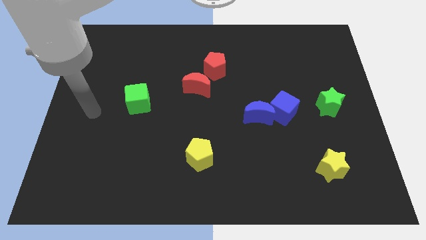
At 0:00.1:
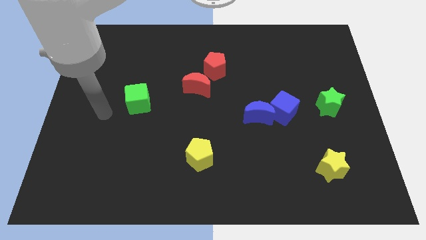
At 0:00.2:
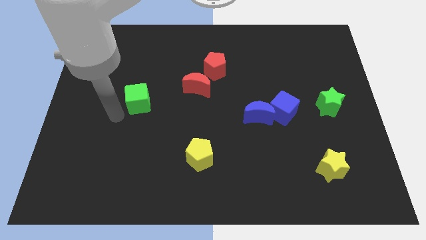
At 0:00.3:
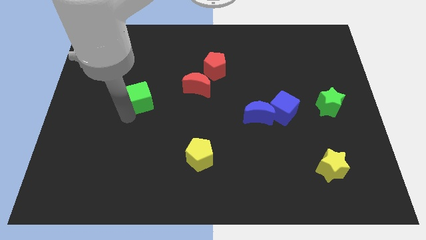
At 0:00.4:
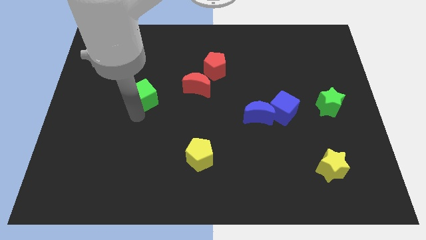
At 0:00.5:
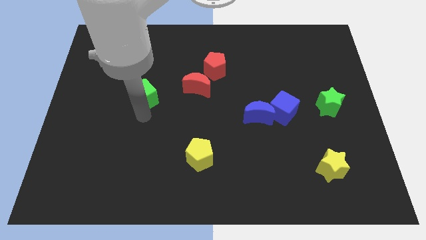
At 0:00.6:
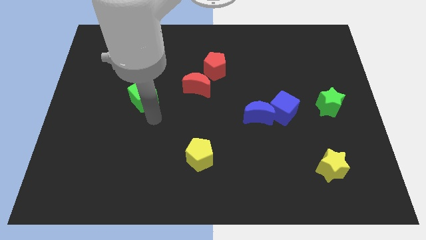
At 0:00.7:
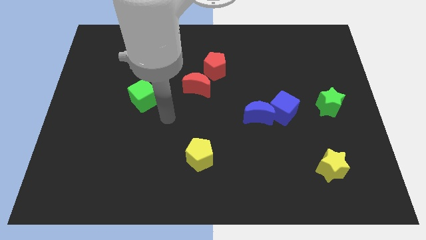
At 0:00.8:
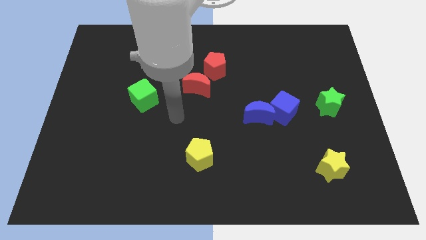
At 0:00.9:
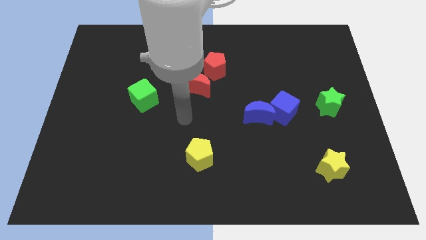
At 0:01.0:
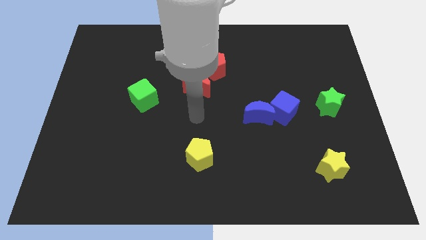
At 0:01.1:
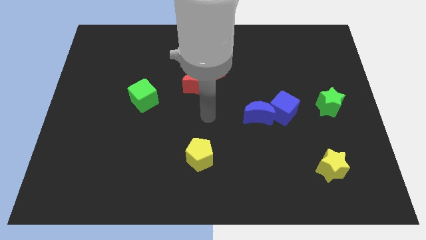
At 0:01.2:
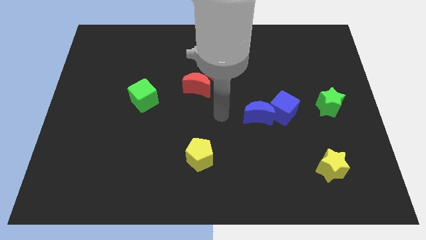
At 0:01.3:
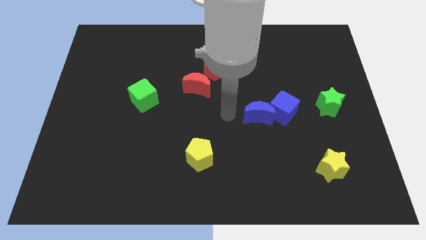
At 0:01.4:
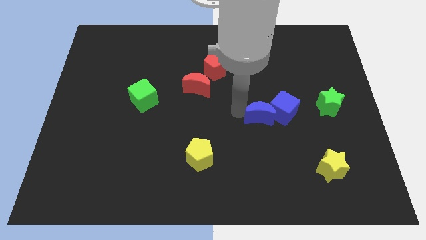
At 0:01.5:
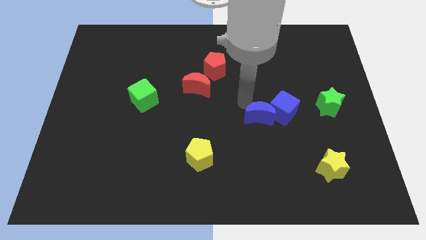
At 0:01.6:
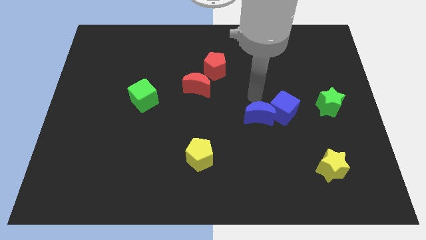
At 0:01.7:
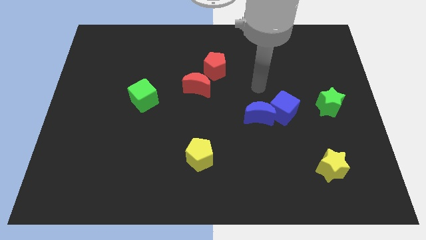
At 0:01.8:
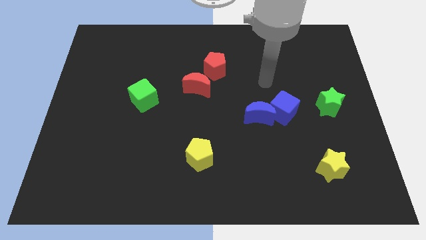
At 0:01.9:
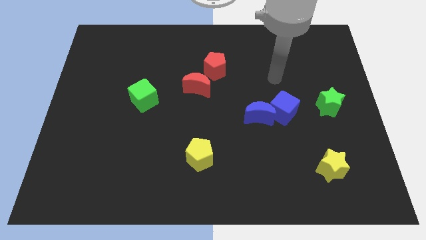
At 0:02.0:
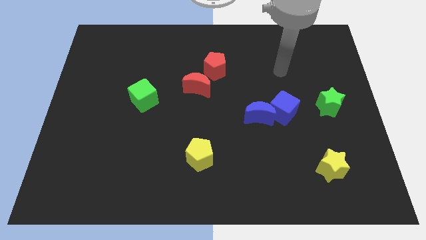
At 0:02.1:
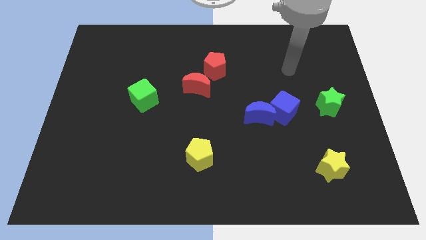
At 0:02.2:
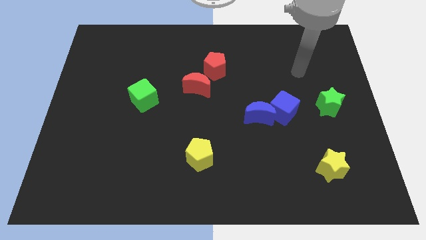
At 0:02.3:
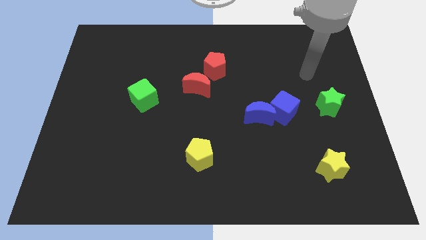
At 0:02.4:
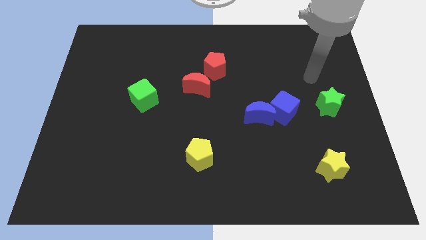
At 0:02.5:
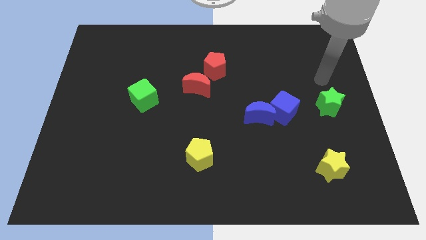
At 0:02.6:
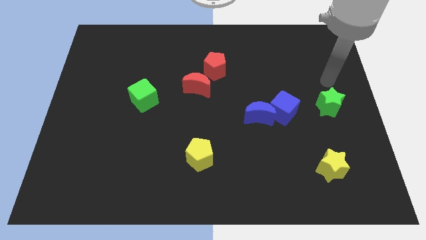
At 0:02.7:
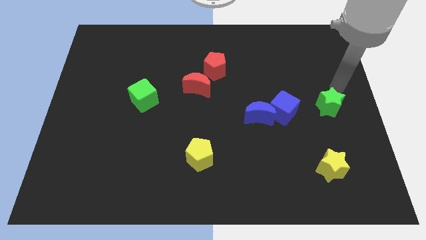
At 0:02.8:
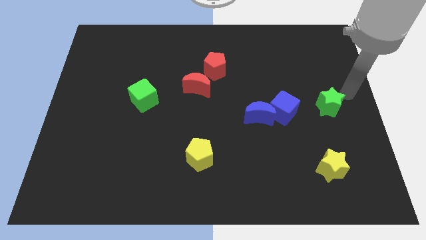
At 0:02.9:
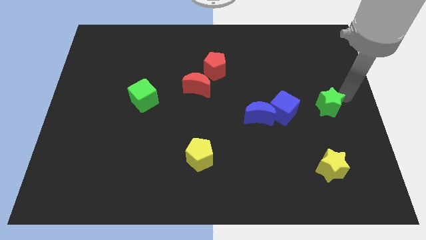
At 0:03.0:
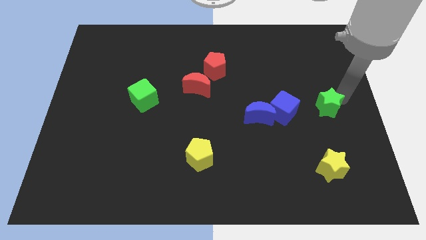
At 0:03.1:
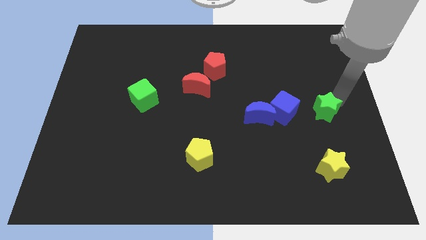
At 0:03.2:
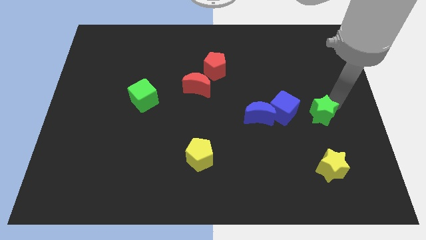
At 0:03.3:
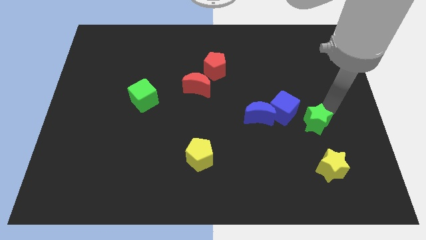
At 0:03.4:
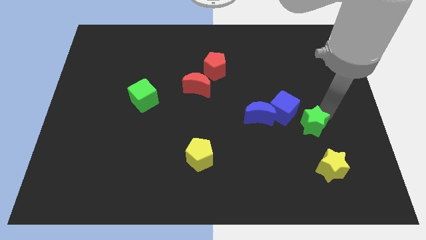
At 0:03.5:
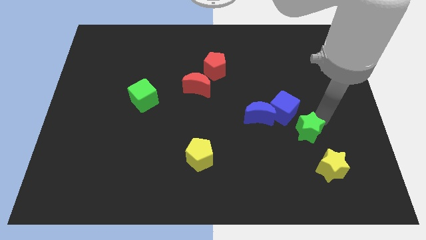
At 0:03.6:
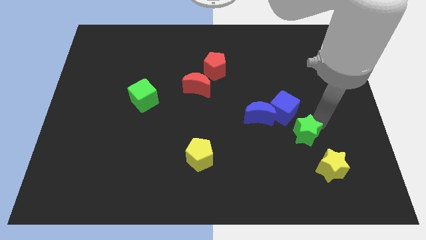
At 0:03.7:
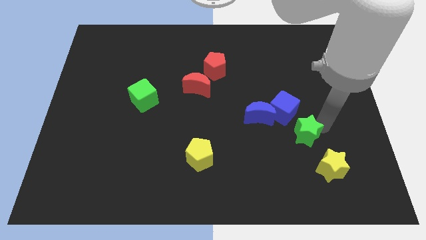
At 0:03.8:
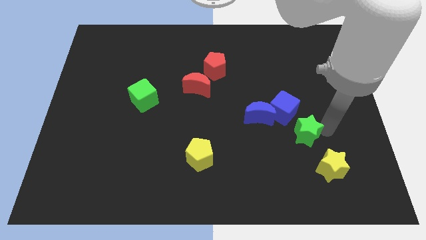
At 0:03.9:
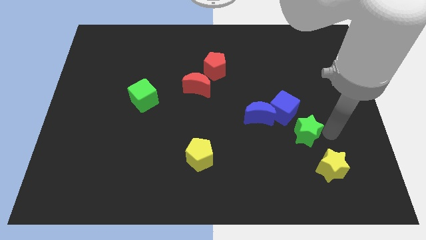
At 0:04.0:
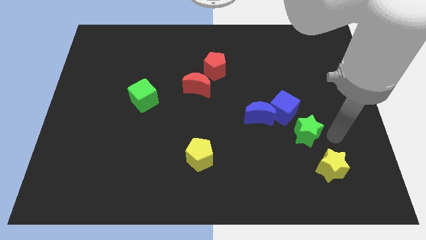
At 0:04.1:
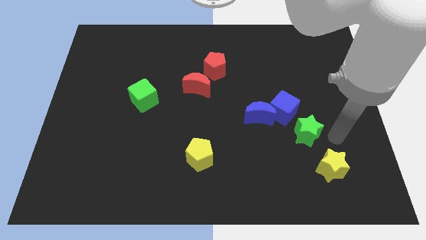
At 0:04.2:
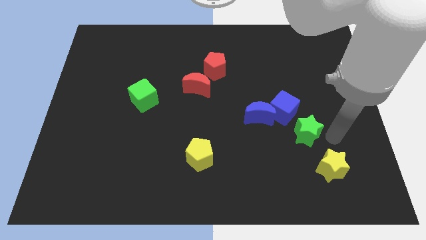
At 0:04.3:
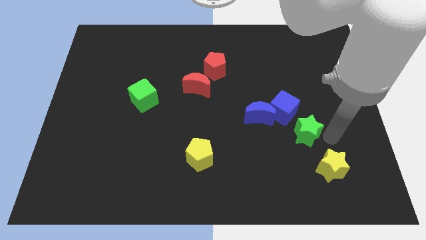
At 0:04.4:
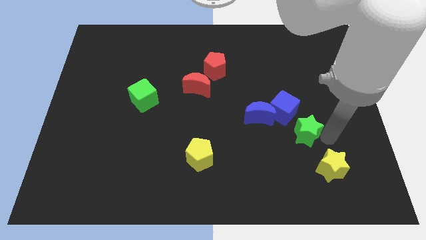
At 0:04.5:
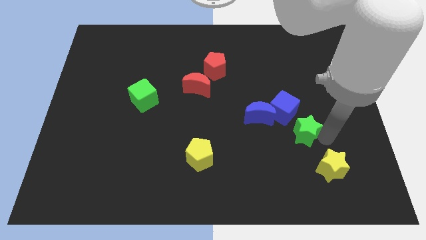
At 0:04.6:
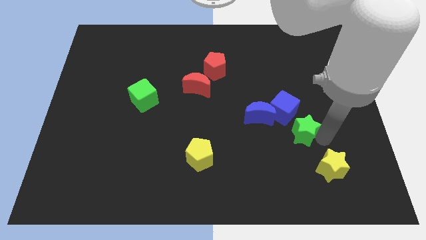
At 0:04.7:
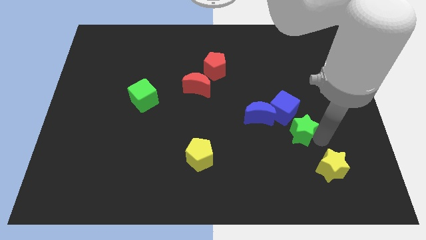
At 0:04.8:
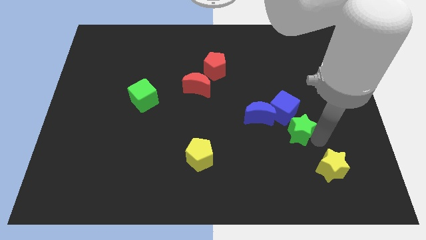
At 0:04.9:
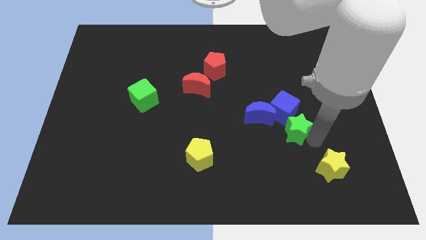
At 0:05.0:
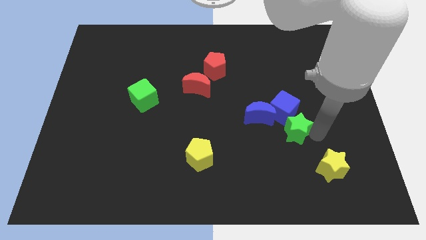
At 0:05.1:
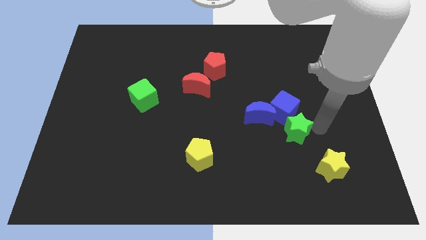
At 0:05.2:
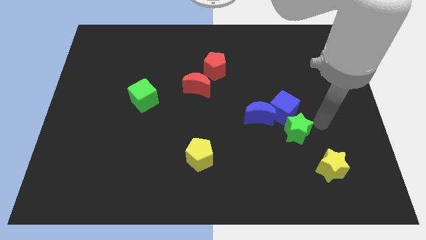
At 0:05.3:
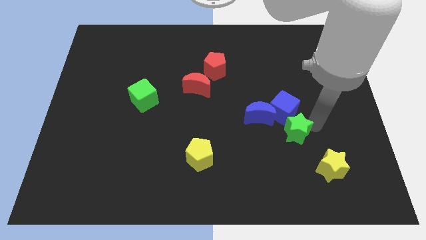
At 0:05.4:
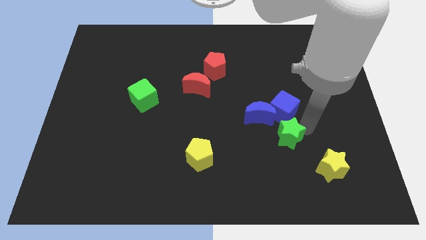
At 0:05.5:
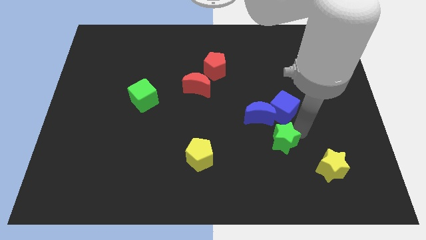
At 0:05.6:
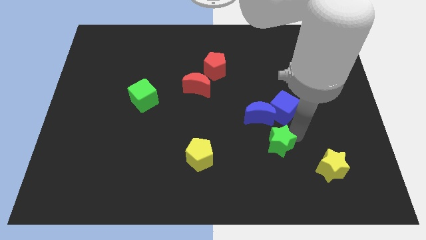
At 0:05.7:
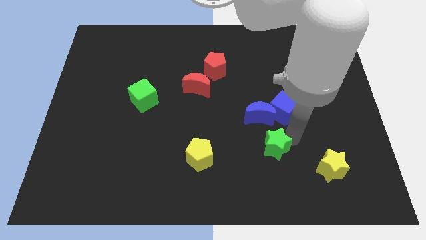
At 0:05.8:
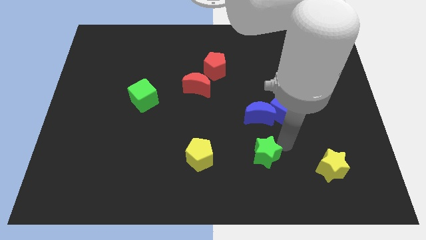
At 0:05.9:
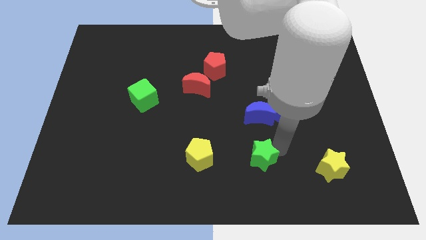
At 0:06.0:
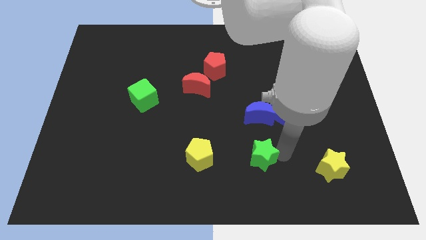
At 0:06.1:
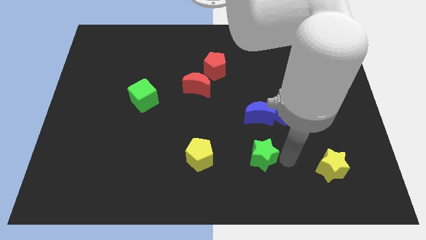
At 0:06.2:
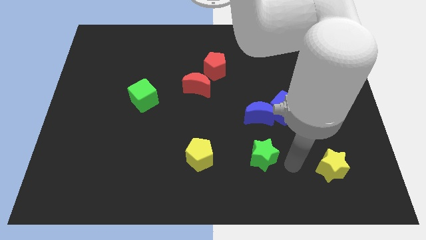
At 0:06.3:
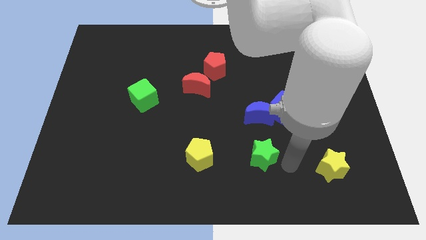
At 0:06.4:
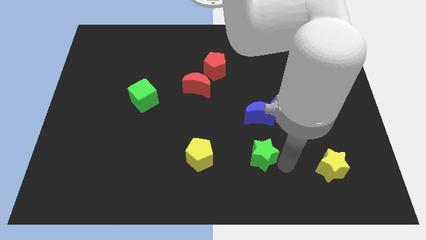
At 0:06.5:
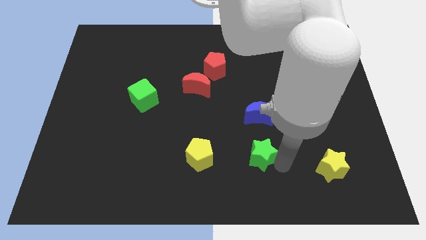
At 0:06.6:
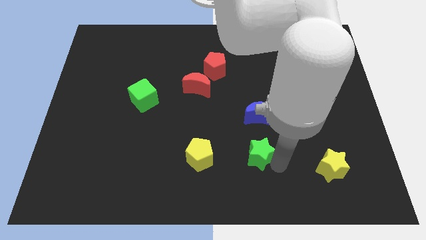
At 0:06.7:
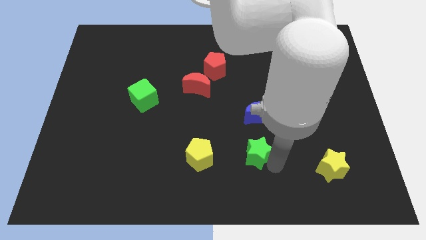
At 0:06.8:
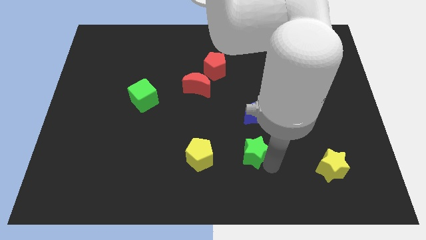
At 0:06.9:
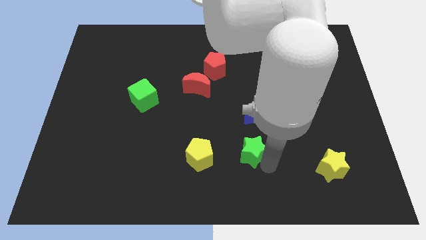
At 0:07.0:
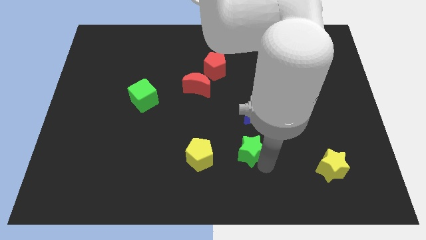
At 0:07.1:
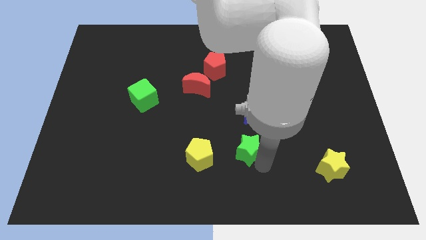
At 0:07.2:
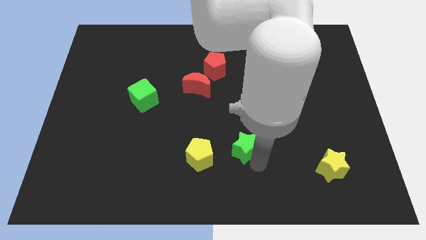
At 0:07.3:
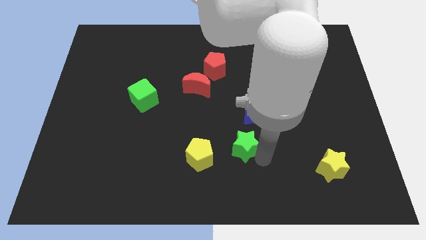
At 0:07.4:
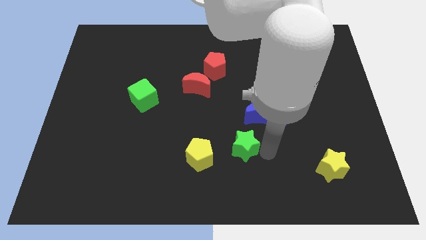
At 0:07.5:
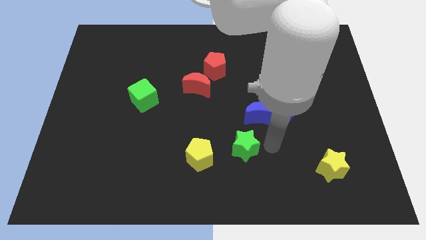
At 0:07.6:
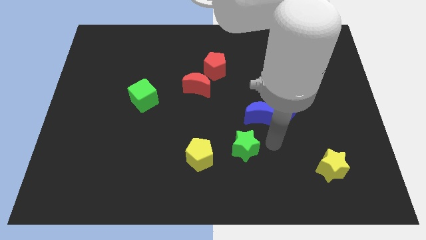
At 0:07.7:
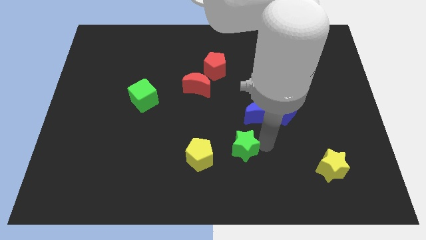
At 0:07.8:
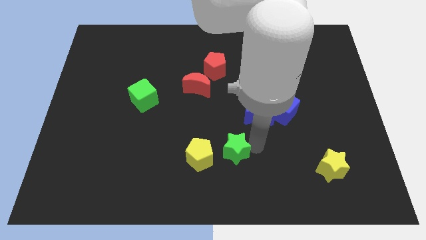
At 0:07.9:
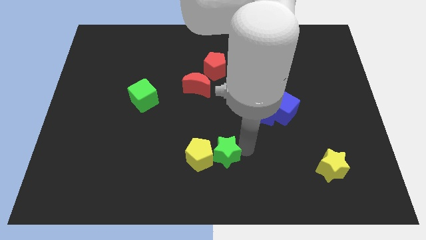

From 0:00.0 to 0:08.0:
push the green star to the yellow pentagon
